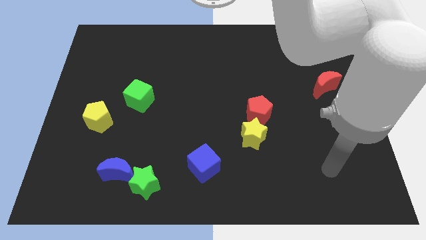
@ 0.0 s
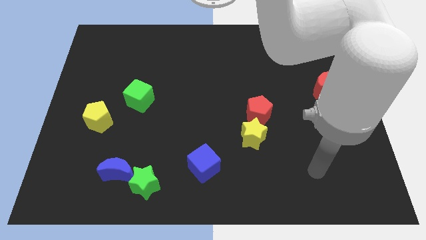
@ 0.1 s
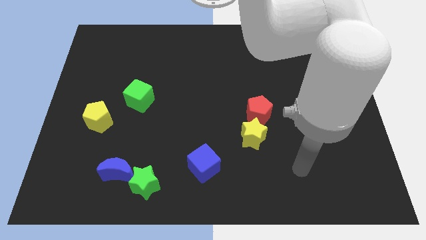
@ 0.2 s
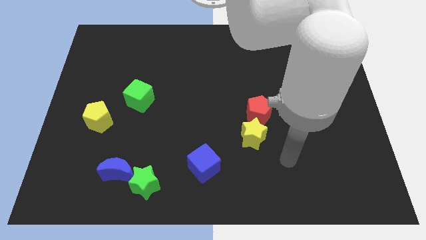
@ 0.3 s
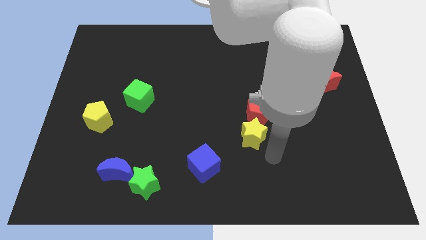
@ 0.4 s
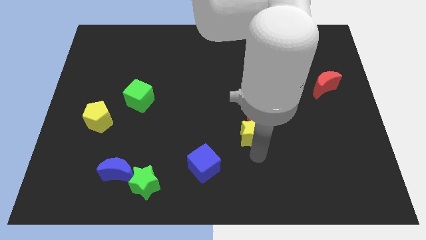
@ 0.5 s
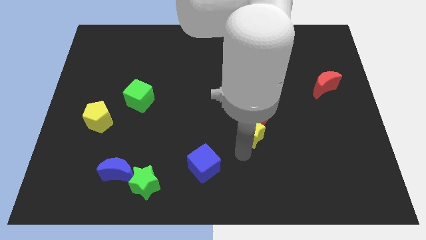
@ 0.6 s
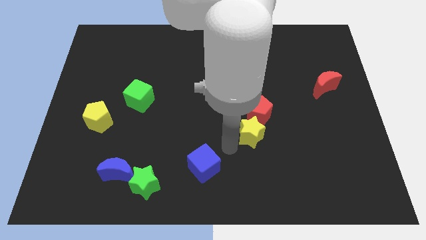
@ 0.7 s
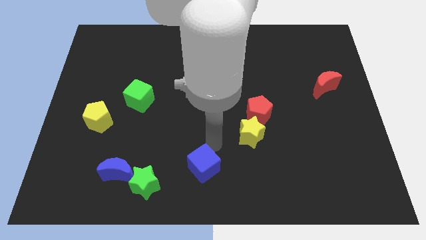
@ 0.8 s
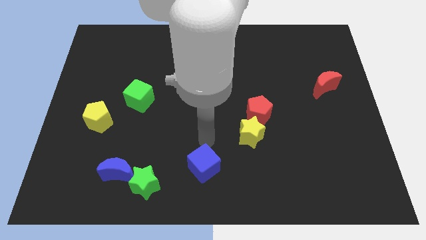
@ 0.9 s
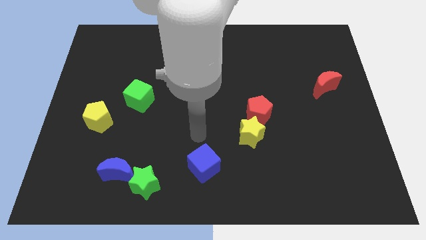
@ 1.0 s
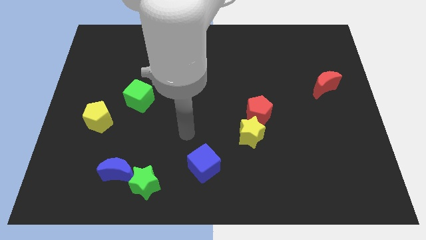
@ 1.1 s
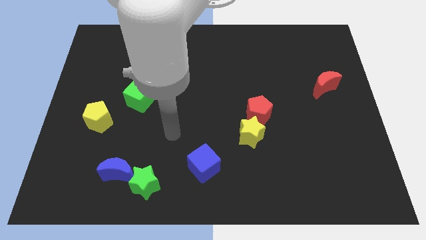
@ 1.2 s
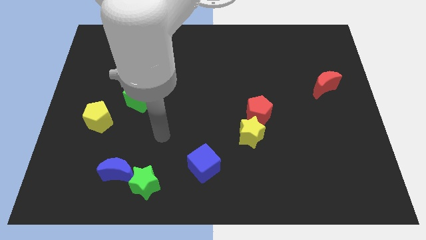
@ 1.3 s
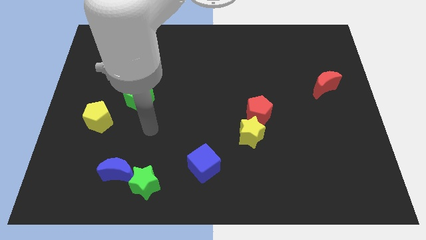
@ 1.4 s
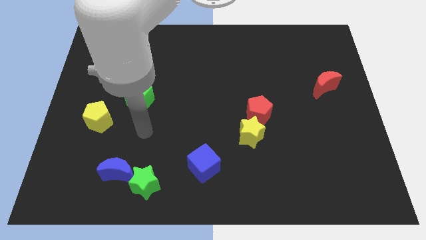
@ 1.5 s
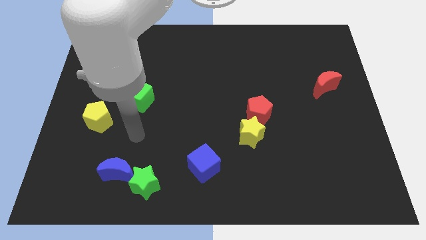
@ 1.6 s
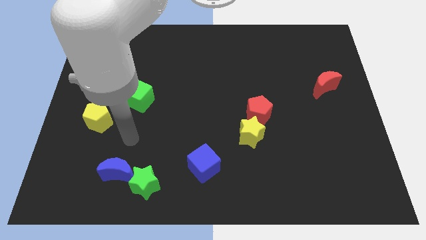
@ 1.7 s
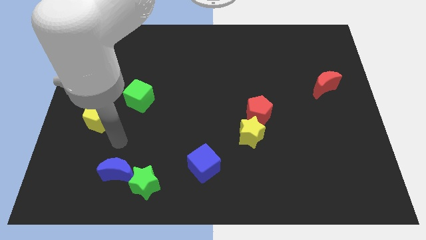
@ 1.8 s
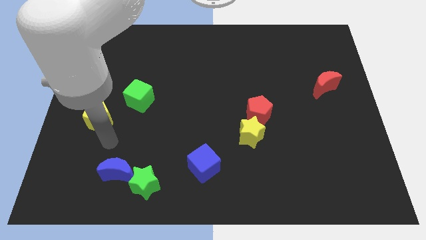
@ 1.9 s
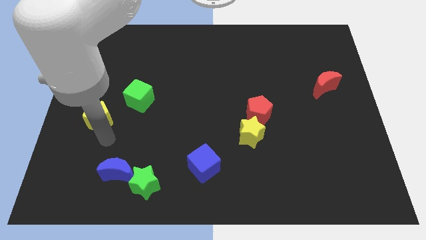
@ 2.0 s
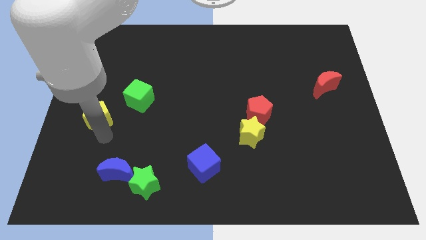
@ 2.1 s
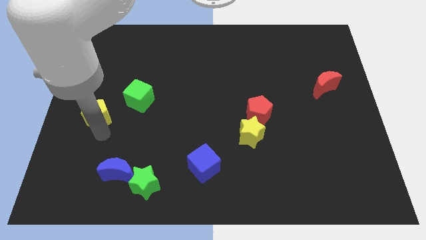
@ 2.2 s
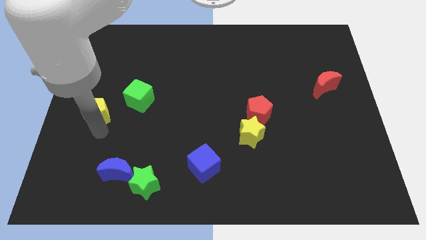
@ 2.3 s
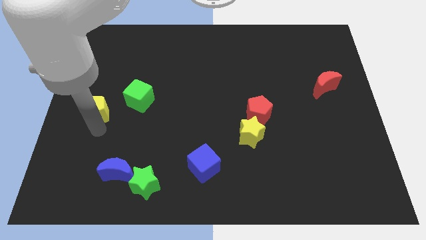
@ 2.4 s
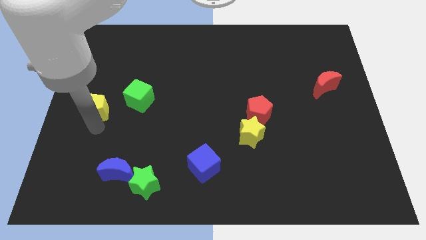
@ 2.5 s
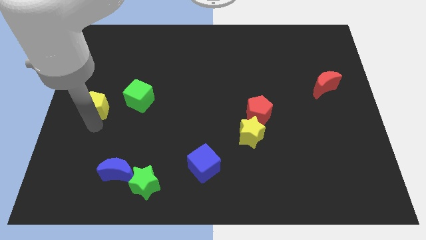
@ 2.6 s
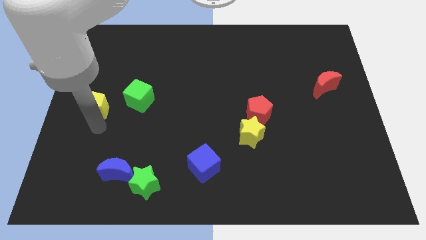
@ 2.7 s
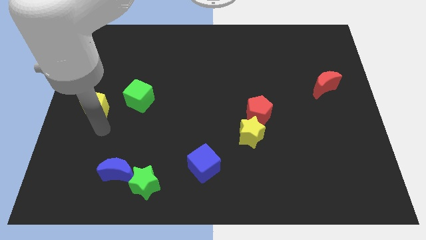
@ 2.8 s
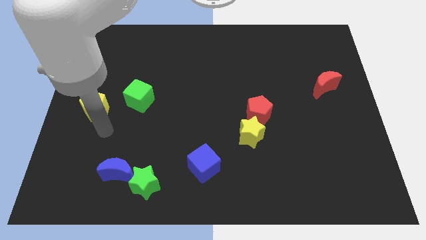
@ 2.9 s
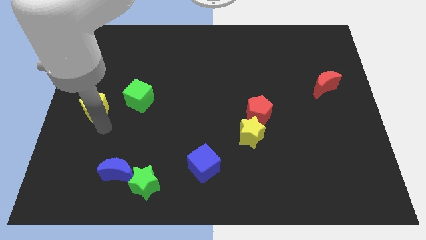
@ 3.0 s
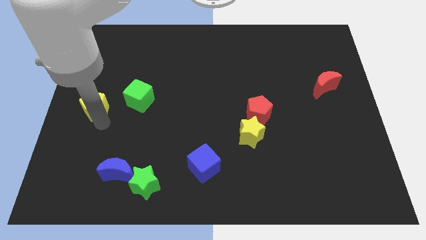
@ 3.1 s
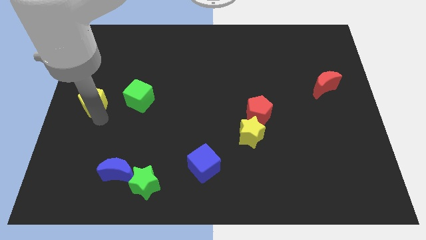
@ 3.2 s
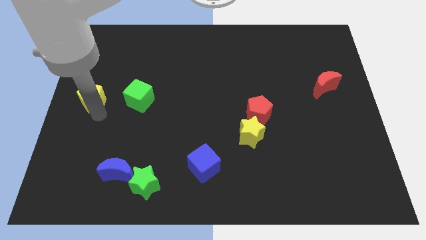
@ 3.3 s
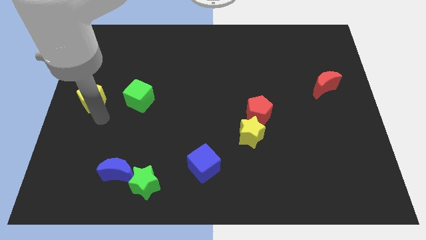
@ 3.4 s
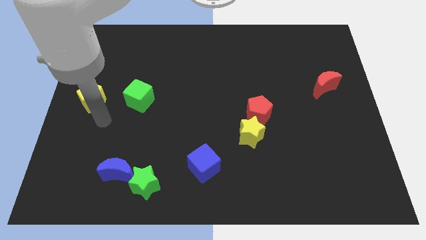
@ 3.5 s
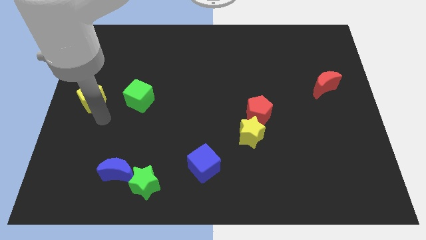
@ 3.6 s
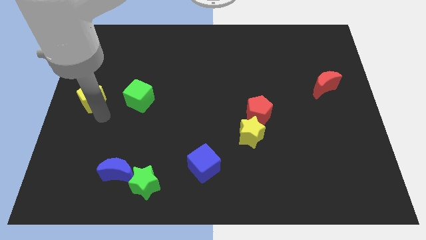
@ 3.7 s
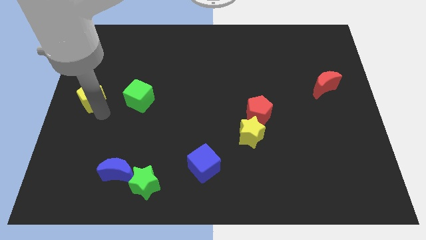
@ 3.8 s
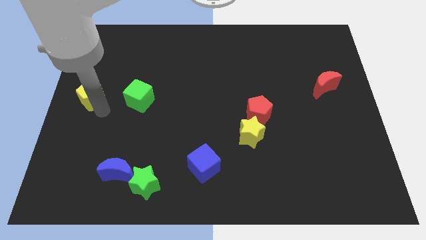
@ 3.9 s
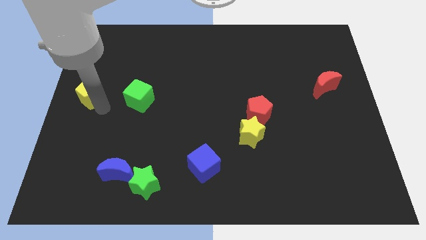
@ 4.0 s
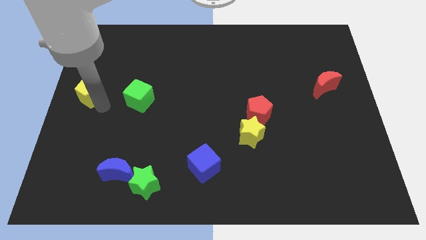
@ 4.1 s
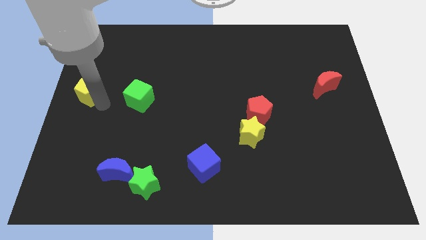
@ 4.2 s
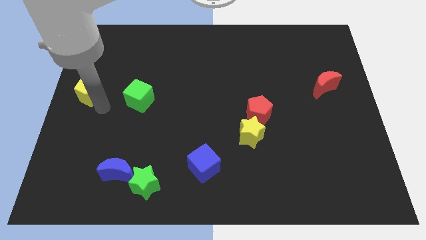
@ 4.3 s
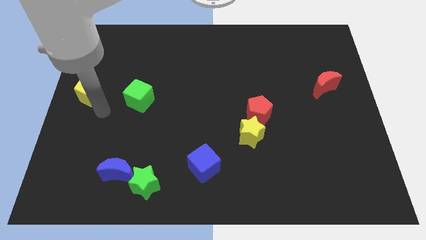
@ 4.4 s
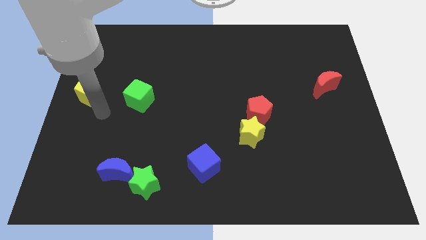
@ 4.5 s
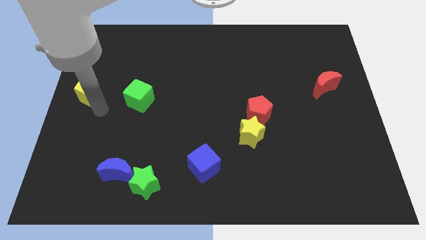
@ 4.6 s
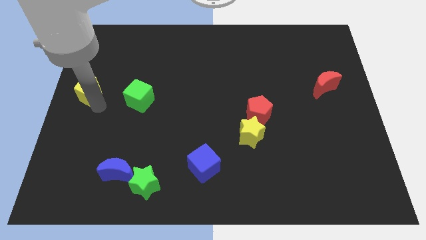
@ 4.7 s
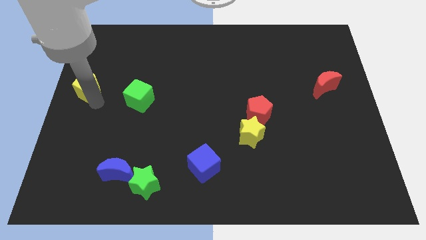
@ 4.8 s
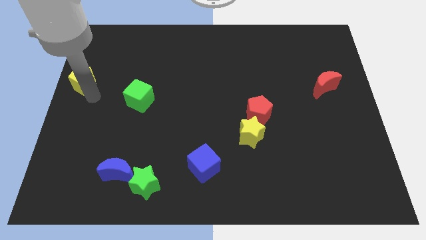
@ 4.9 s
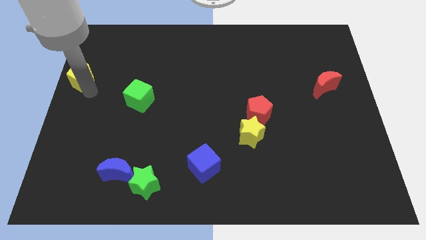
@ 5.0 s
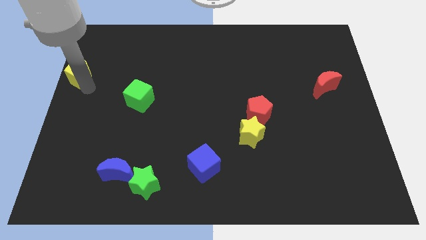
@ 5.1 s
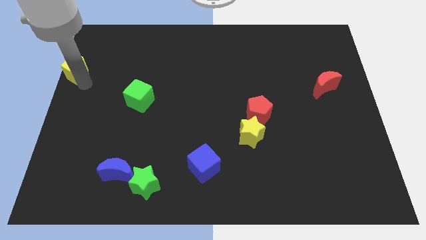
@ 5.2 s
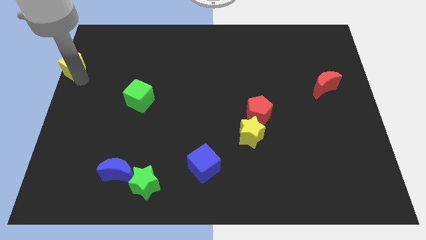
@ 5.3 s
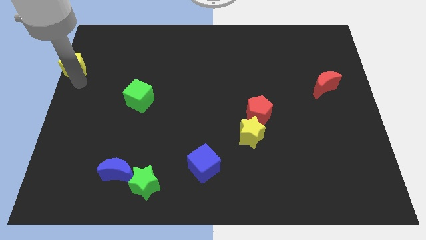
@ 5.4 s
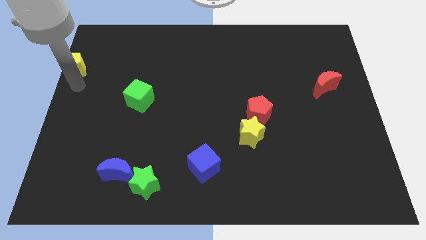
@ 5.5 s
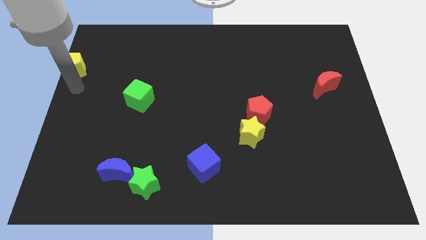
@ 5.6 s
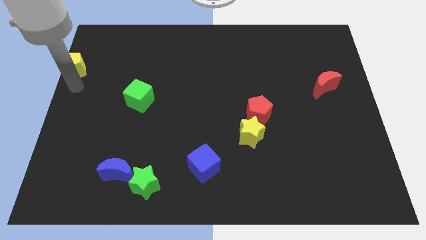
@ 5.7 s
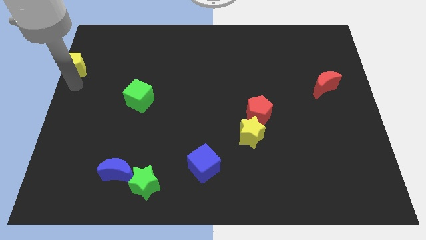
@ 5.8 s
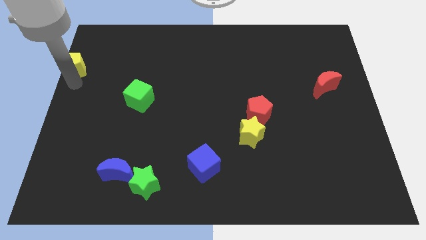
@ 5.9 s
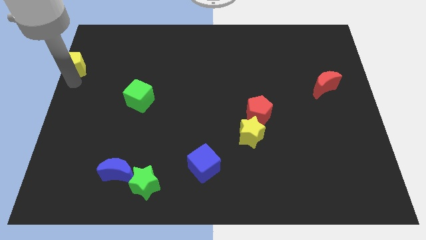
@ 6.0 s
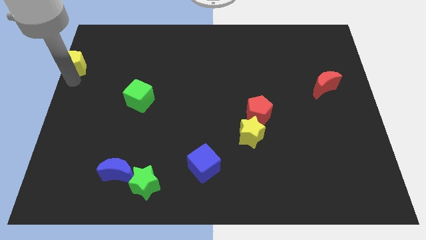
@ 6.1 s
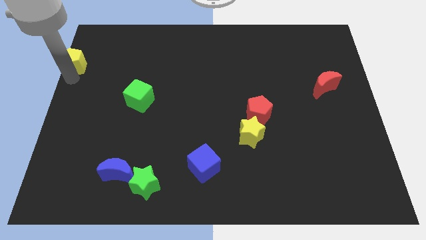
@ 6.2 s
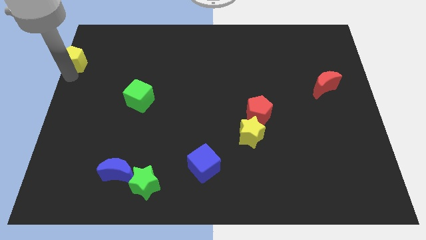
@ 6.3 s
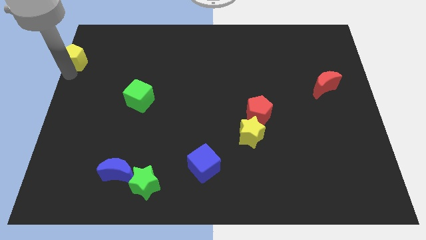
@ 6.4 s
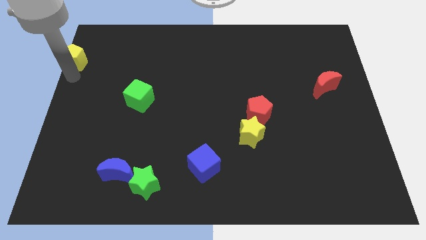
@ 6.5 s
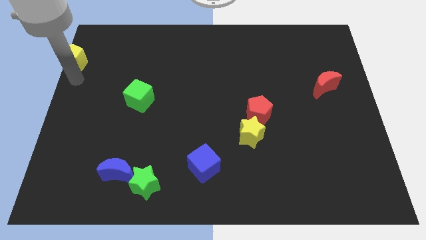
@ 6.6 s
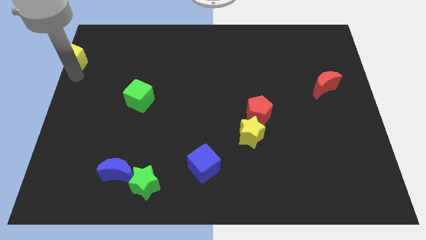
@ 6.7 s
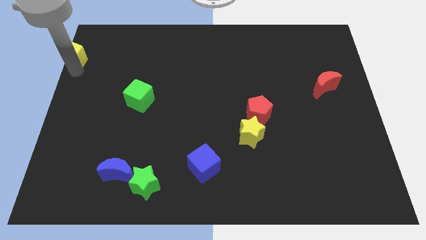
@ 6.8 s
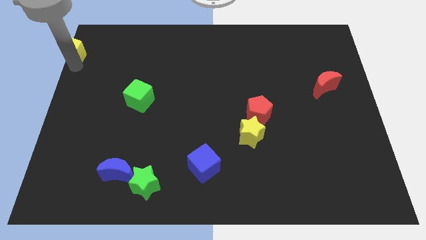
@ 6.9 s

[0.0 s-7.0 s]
move the yellow pentagon to the top left of the board
